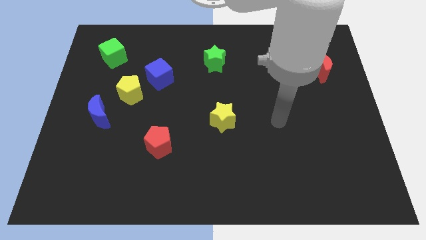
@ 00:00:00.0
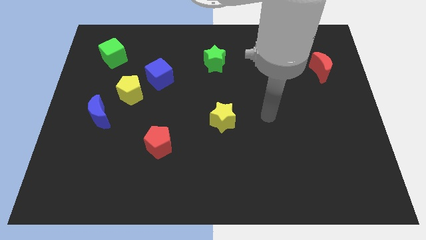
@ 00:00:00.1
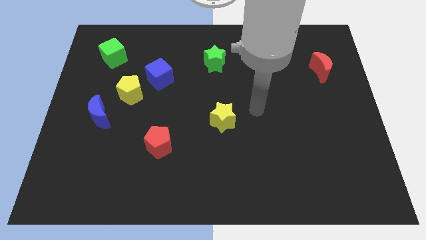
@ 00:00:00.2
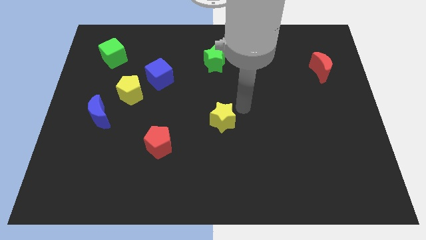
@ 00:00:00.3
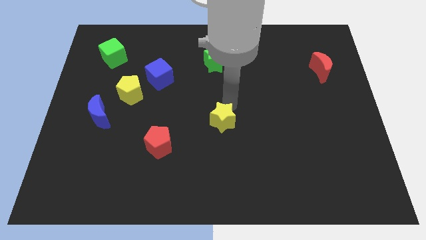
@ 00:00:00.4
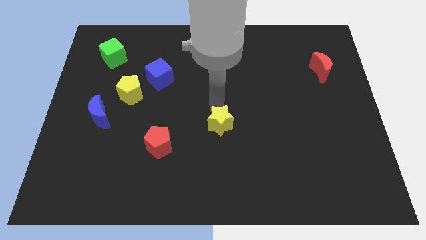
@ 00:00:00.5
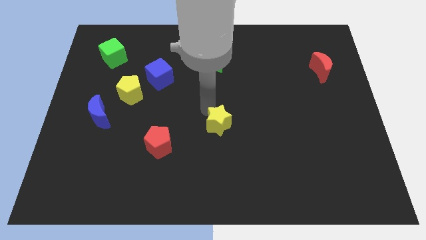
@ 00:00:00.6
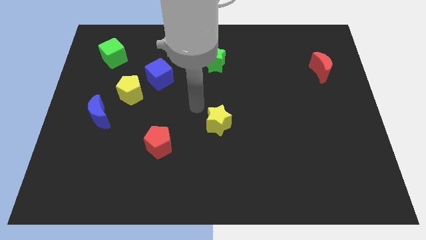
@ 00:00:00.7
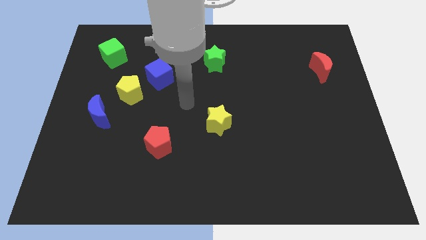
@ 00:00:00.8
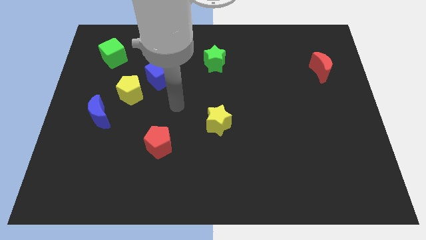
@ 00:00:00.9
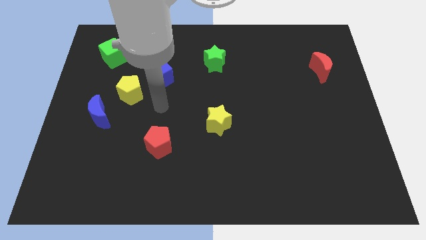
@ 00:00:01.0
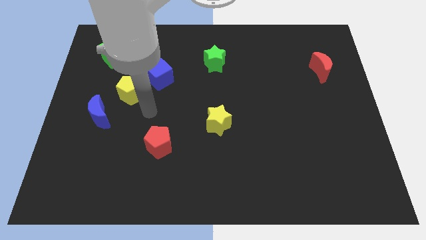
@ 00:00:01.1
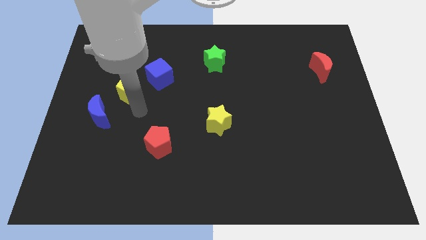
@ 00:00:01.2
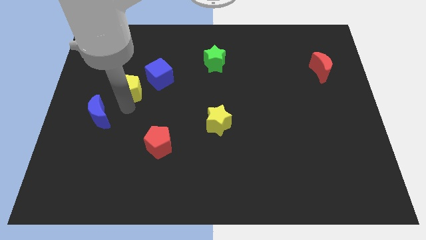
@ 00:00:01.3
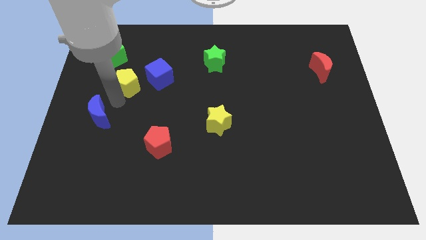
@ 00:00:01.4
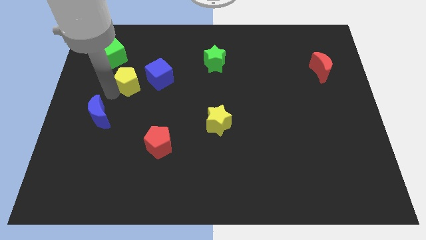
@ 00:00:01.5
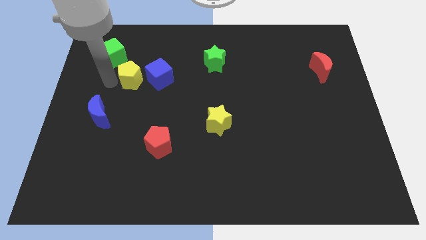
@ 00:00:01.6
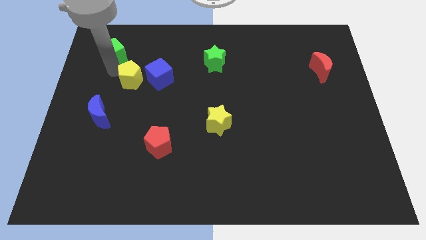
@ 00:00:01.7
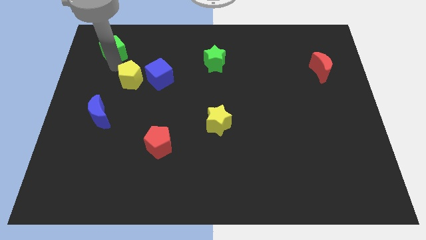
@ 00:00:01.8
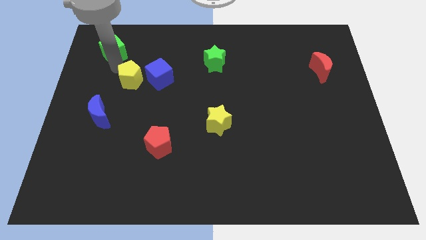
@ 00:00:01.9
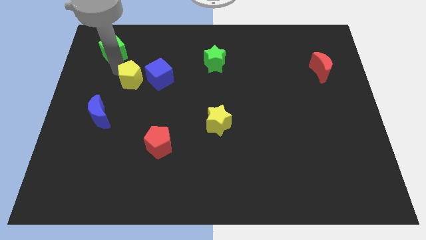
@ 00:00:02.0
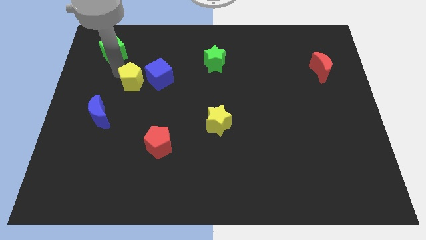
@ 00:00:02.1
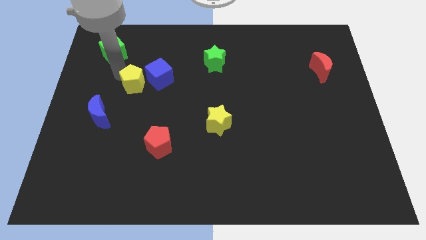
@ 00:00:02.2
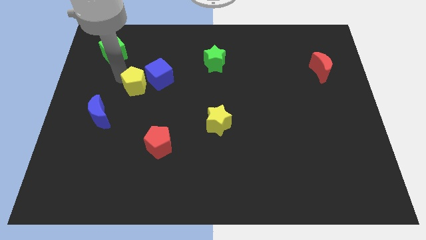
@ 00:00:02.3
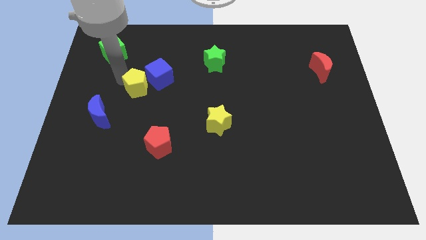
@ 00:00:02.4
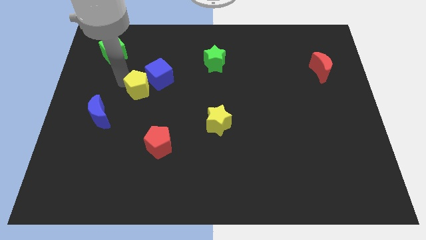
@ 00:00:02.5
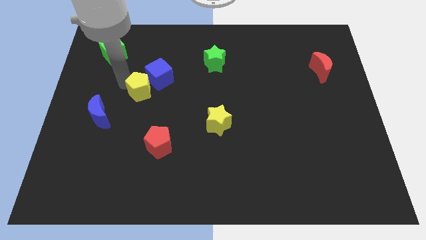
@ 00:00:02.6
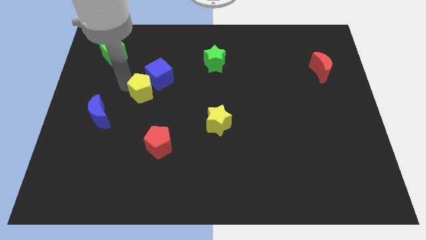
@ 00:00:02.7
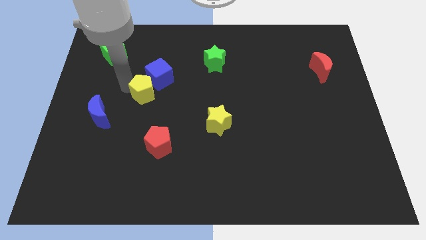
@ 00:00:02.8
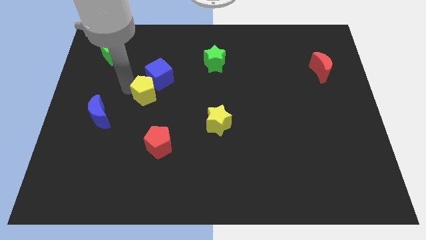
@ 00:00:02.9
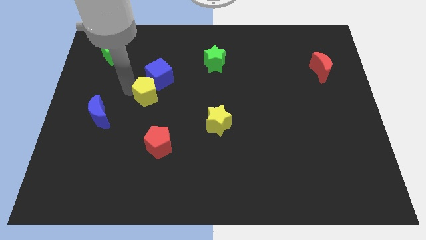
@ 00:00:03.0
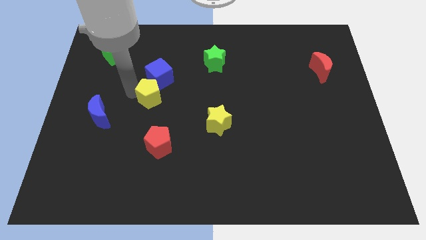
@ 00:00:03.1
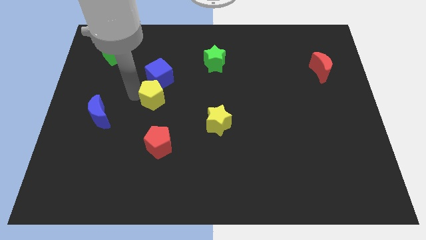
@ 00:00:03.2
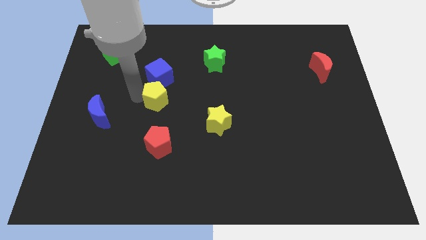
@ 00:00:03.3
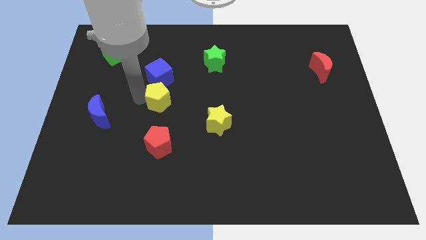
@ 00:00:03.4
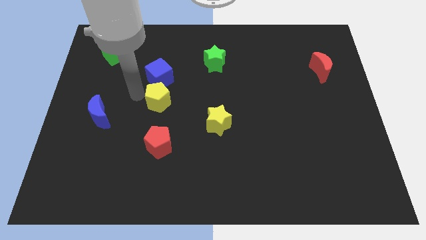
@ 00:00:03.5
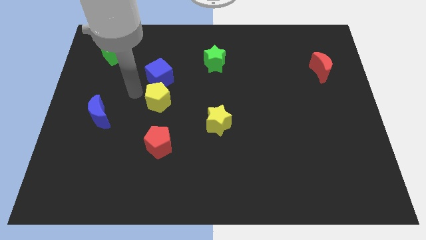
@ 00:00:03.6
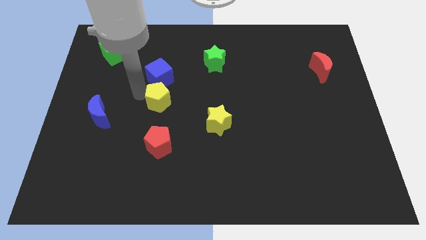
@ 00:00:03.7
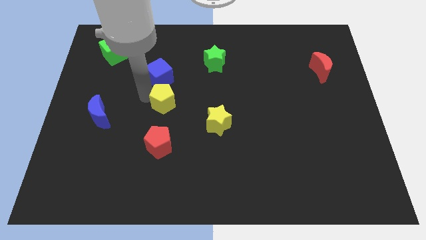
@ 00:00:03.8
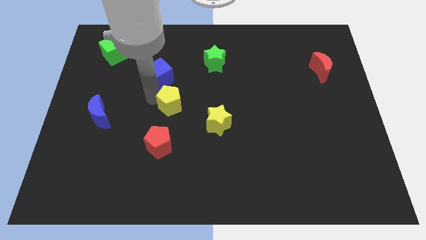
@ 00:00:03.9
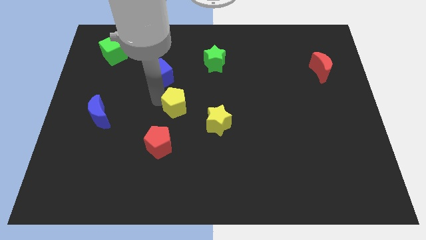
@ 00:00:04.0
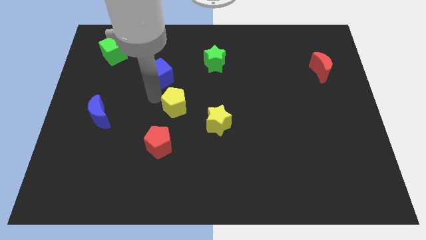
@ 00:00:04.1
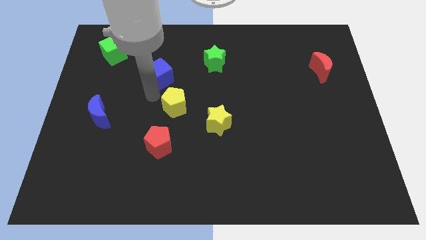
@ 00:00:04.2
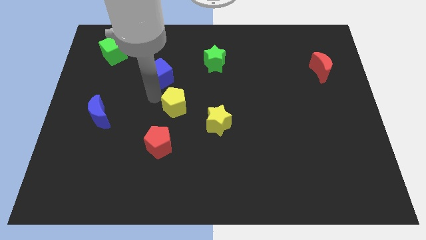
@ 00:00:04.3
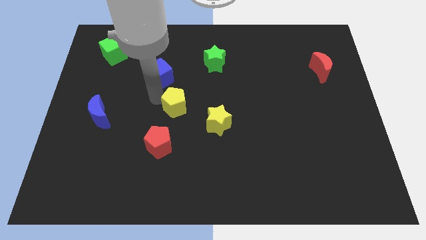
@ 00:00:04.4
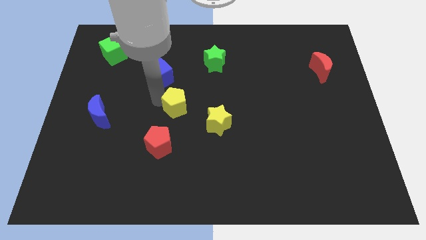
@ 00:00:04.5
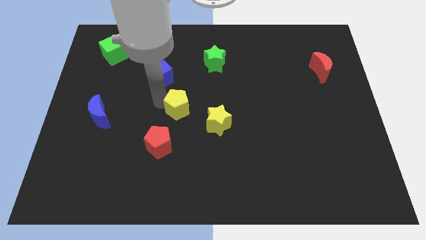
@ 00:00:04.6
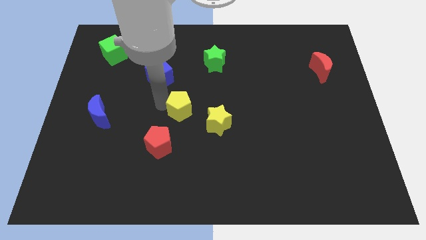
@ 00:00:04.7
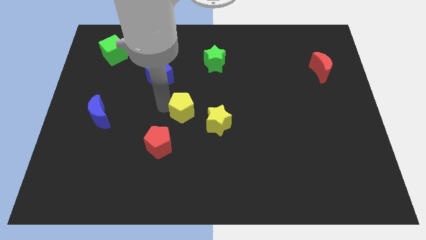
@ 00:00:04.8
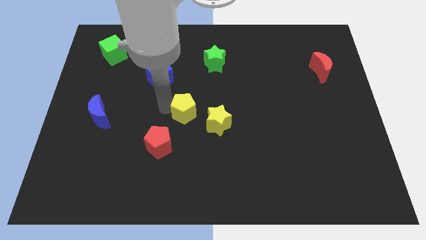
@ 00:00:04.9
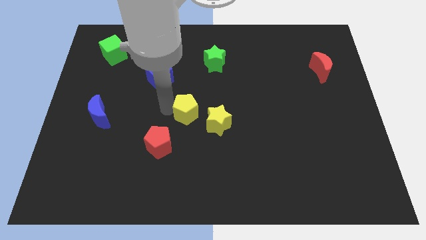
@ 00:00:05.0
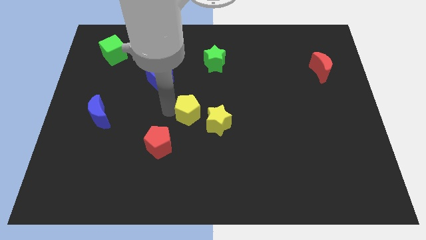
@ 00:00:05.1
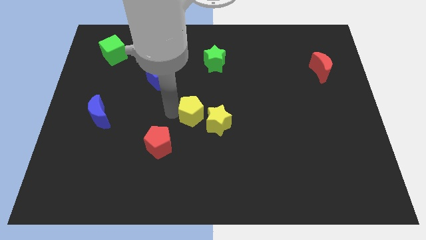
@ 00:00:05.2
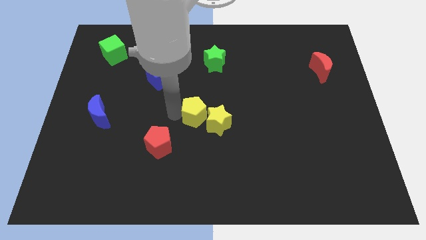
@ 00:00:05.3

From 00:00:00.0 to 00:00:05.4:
put the yellow pentagon next to the yellow star
